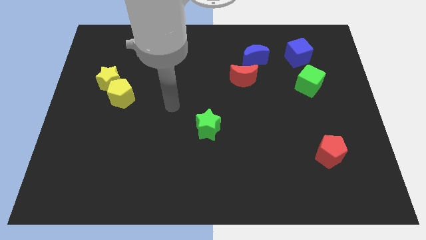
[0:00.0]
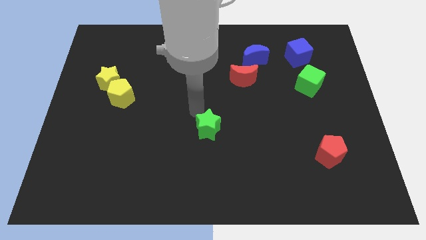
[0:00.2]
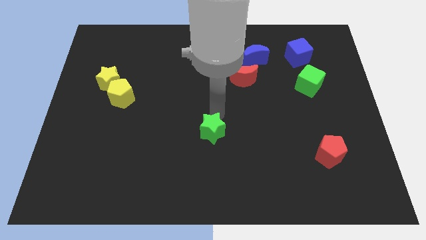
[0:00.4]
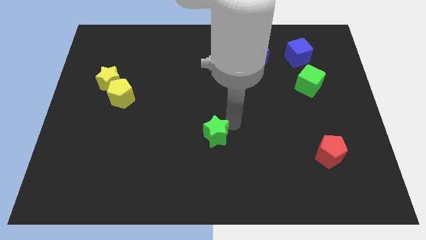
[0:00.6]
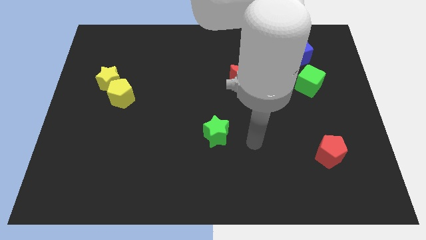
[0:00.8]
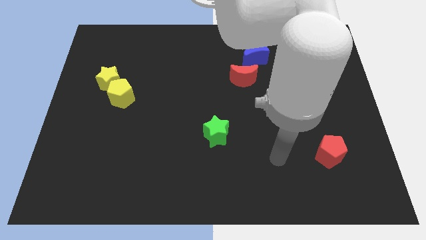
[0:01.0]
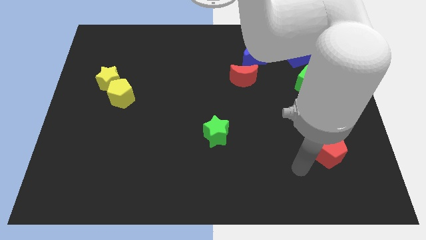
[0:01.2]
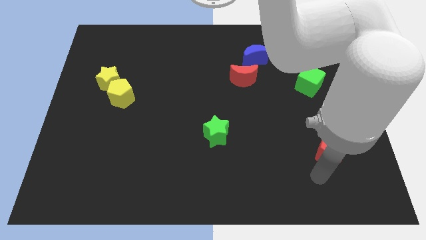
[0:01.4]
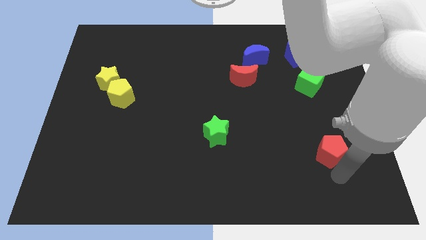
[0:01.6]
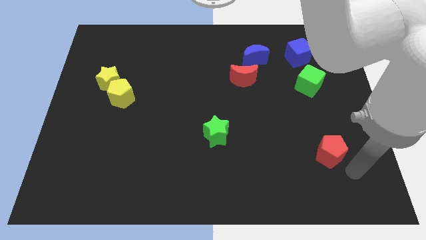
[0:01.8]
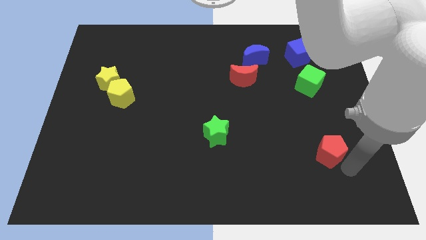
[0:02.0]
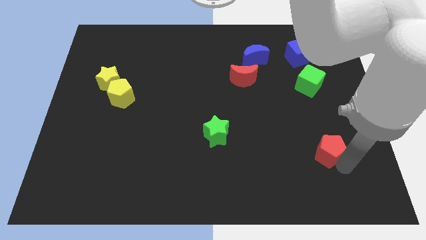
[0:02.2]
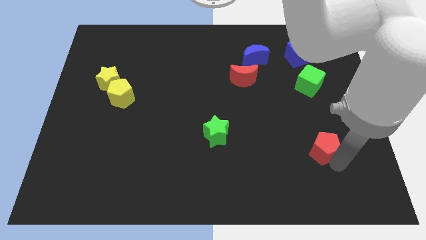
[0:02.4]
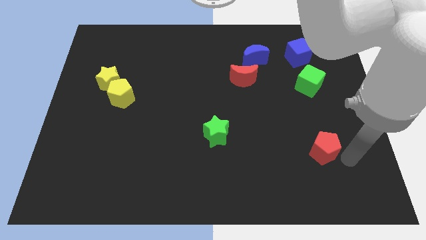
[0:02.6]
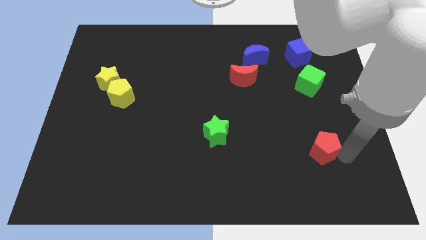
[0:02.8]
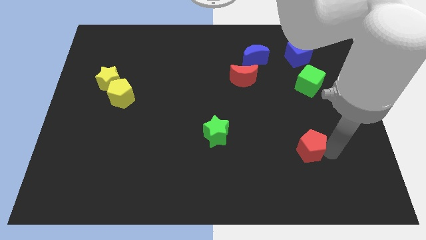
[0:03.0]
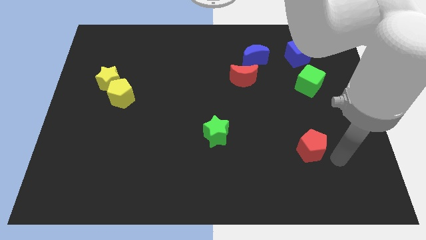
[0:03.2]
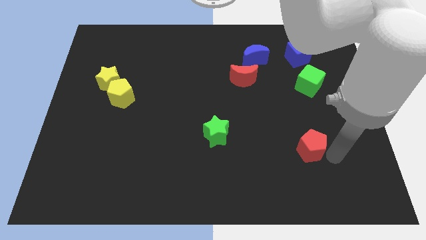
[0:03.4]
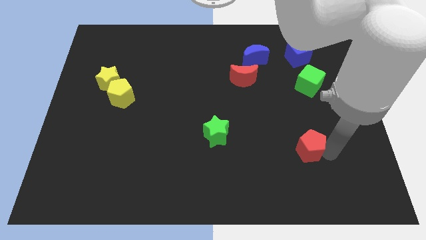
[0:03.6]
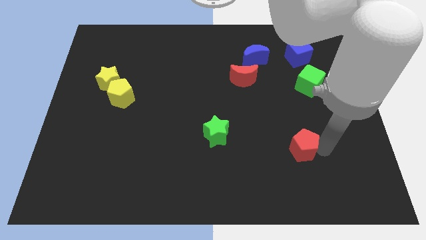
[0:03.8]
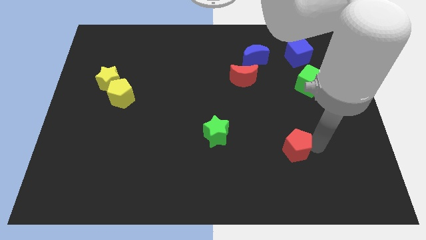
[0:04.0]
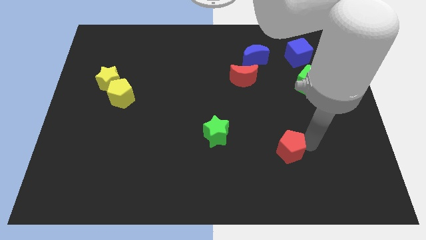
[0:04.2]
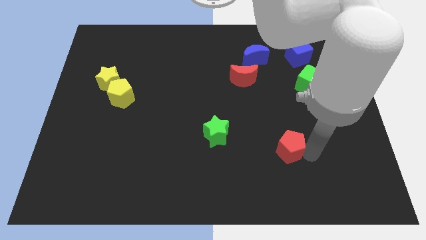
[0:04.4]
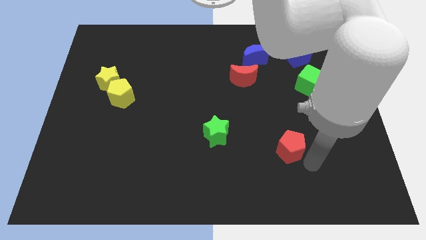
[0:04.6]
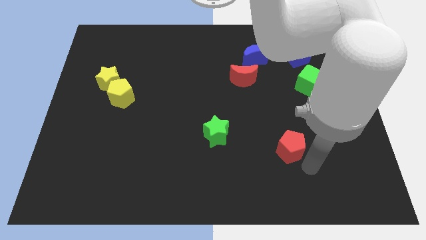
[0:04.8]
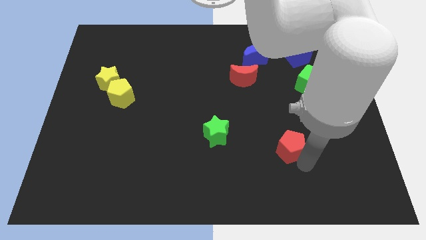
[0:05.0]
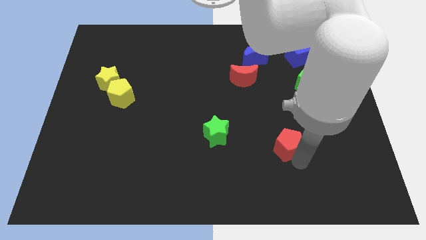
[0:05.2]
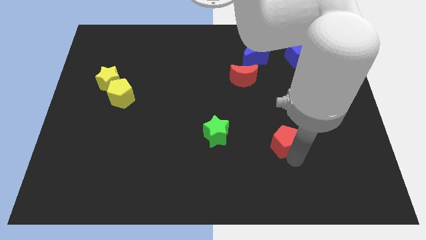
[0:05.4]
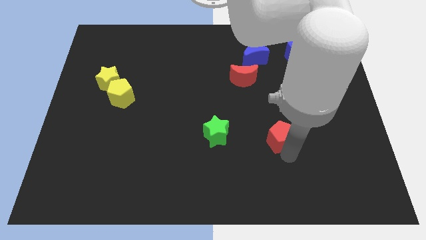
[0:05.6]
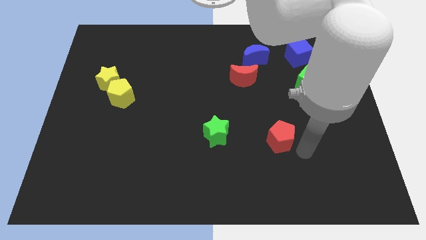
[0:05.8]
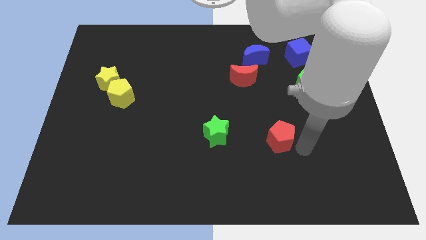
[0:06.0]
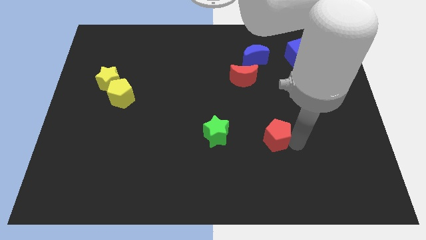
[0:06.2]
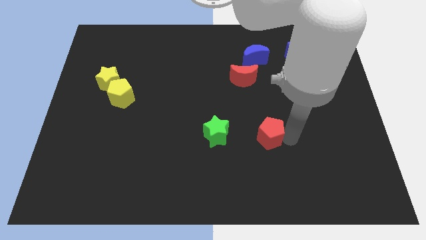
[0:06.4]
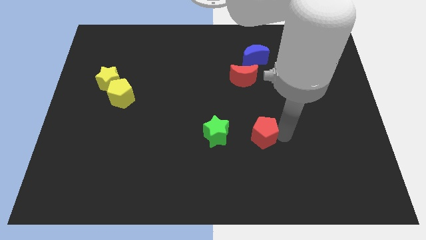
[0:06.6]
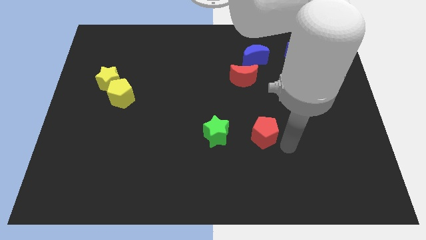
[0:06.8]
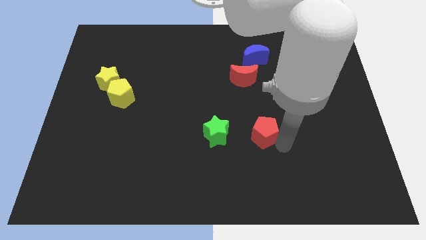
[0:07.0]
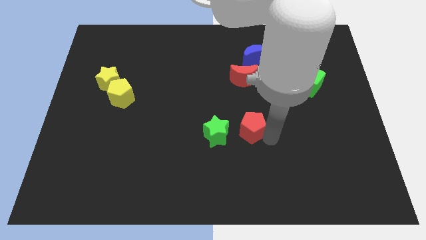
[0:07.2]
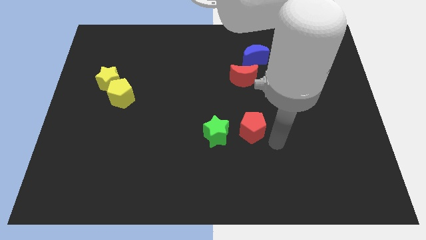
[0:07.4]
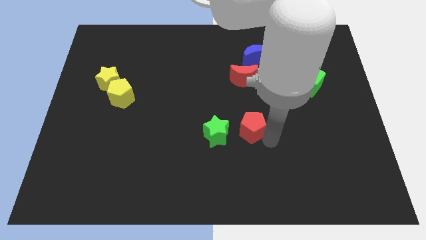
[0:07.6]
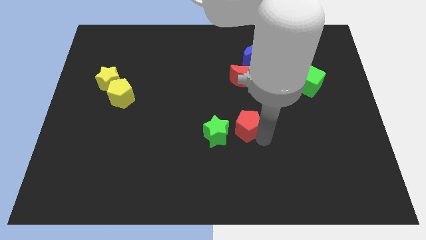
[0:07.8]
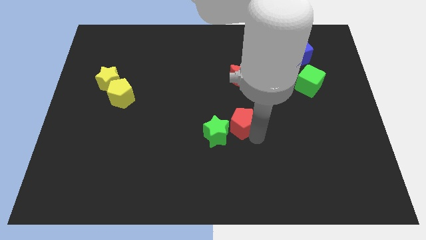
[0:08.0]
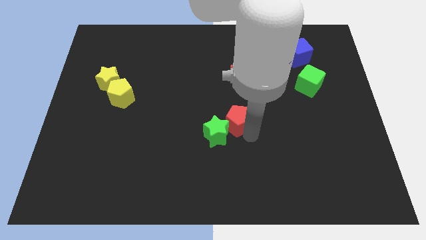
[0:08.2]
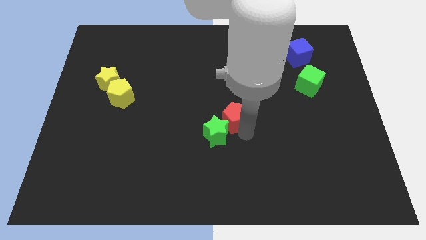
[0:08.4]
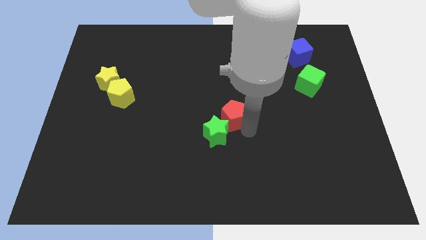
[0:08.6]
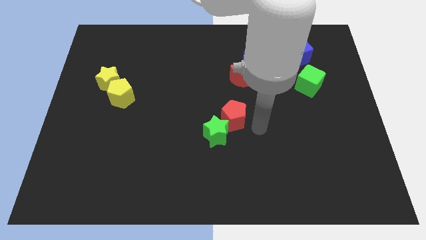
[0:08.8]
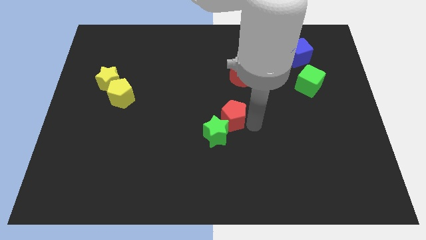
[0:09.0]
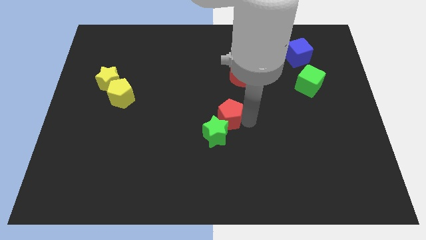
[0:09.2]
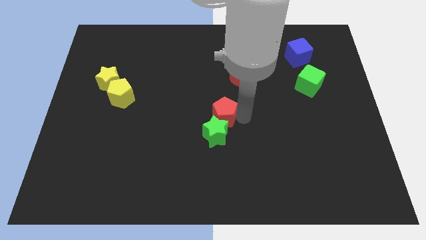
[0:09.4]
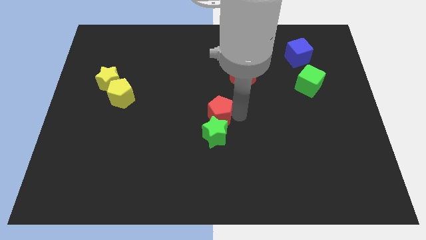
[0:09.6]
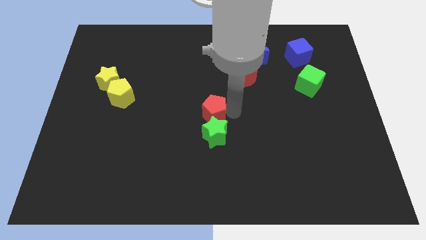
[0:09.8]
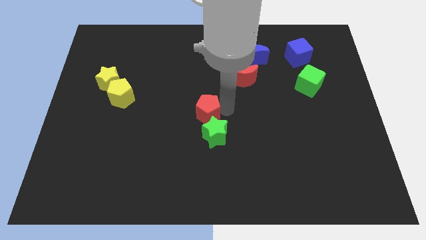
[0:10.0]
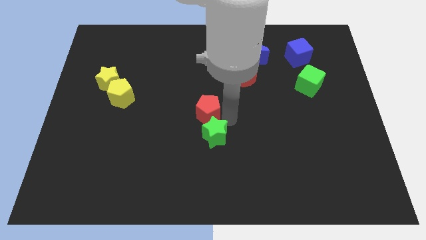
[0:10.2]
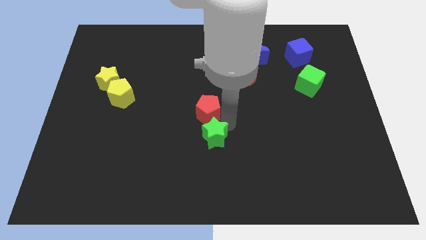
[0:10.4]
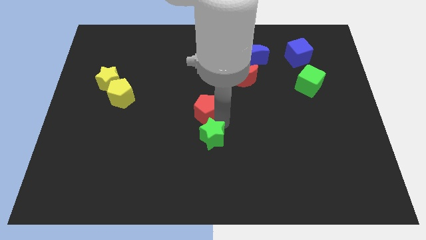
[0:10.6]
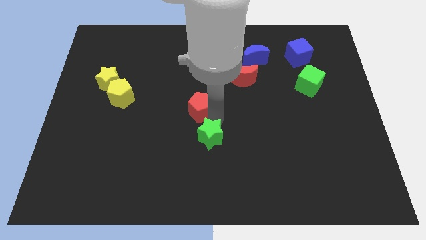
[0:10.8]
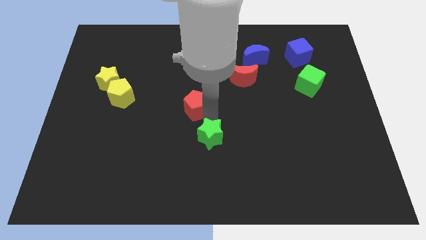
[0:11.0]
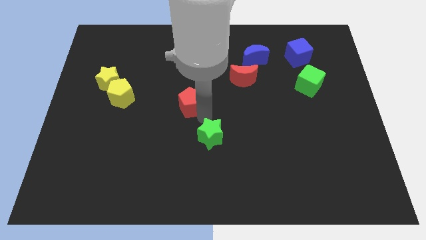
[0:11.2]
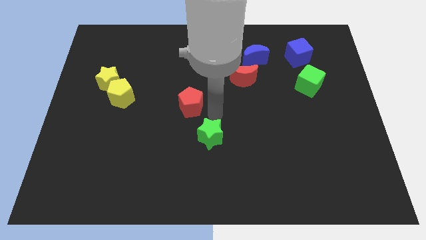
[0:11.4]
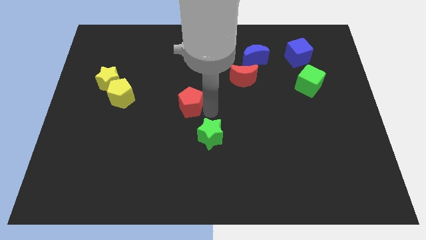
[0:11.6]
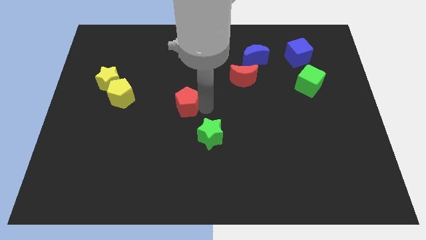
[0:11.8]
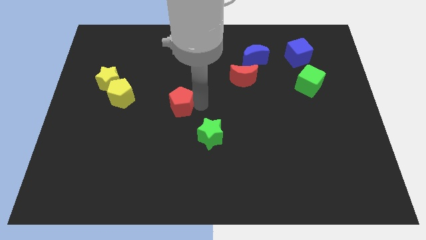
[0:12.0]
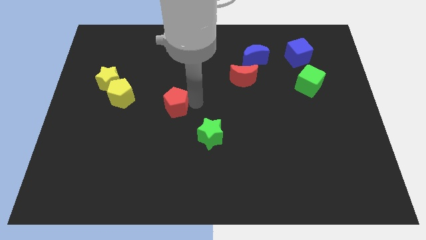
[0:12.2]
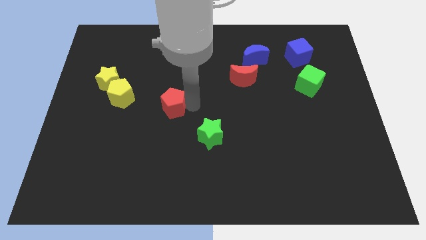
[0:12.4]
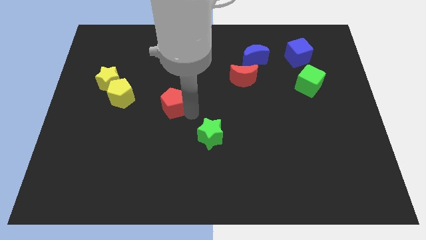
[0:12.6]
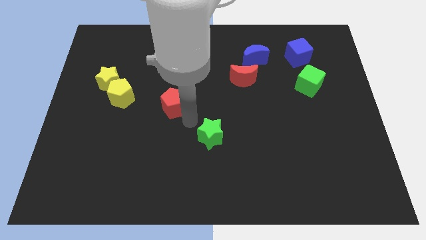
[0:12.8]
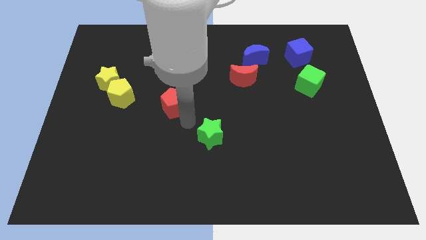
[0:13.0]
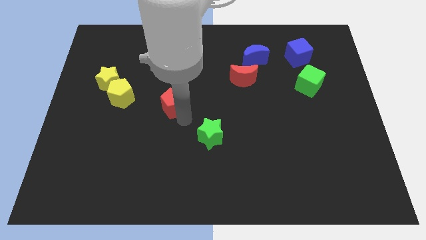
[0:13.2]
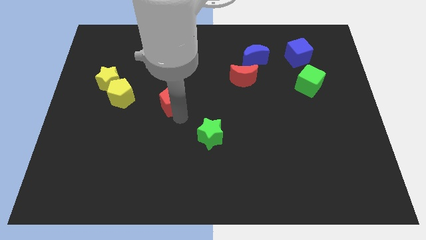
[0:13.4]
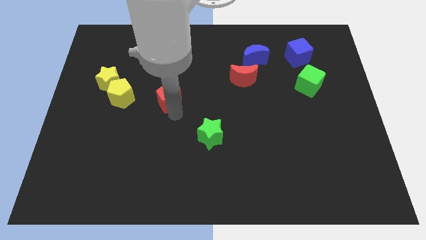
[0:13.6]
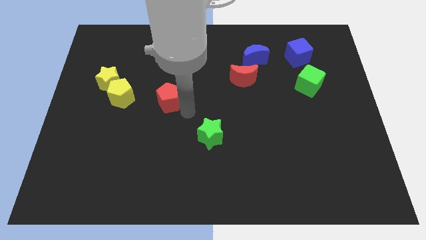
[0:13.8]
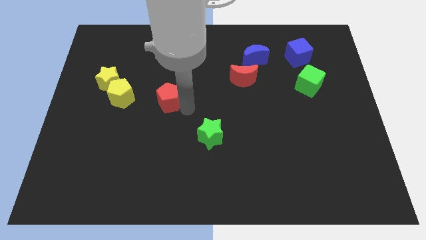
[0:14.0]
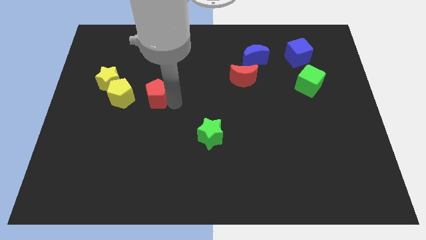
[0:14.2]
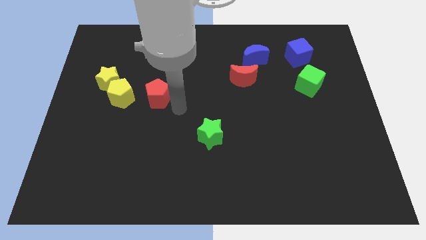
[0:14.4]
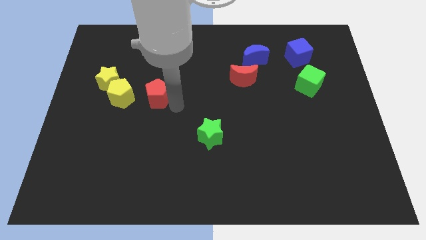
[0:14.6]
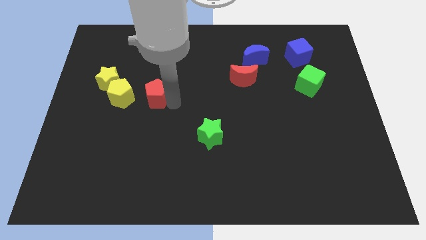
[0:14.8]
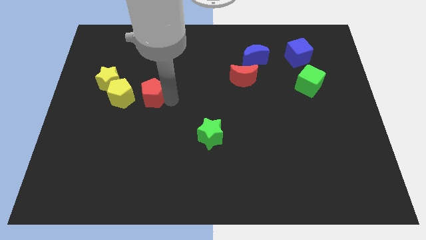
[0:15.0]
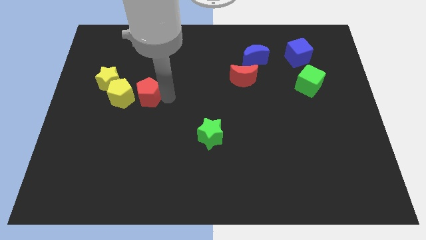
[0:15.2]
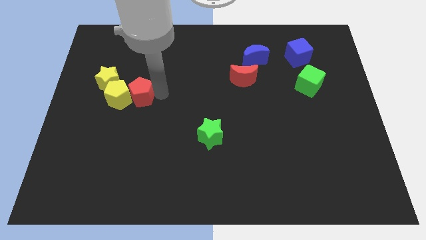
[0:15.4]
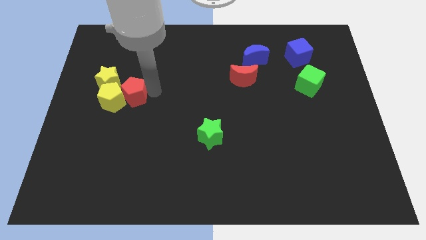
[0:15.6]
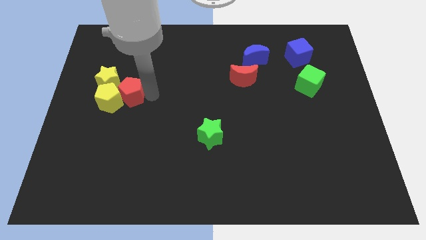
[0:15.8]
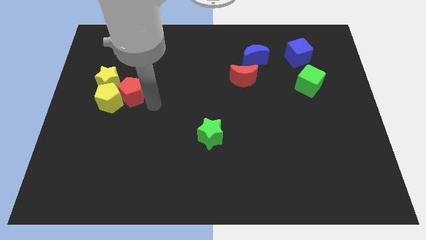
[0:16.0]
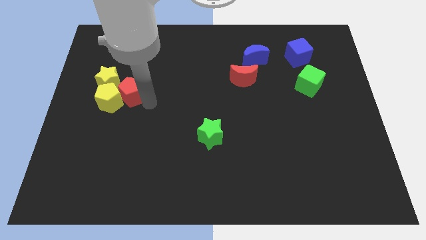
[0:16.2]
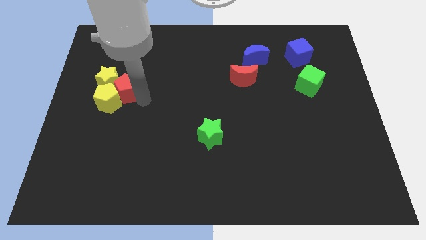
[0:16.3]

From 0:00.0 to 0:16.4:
move the red pentagon towards the yellow star
